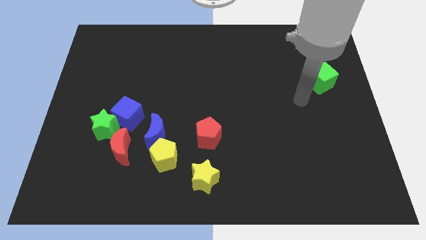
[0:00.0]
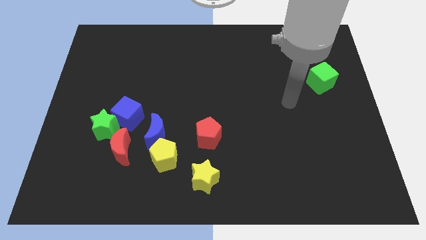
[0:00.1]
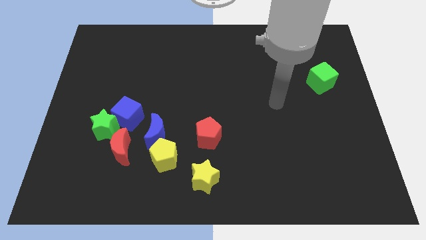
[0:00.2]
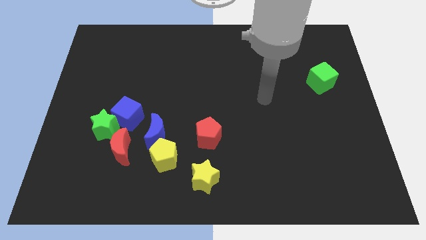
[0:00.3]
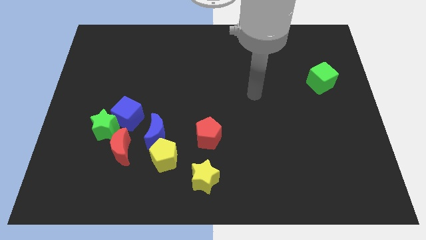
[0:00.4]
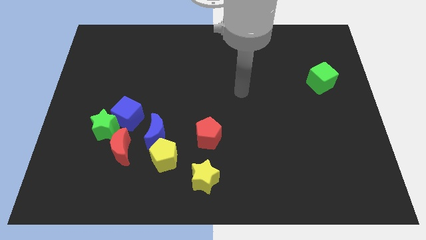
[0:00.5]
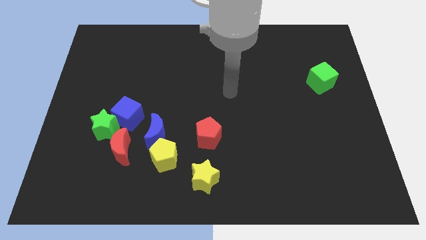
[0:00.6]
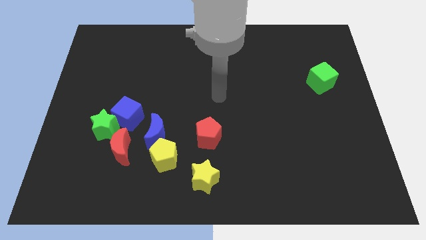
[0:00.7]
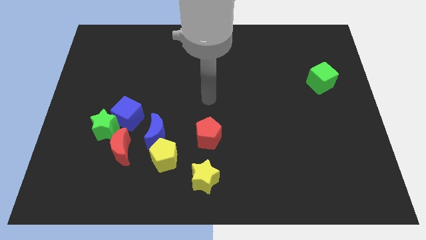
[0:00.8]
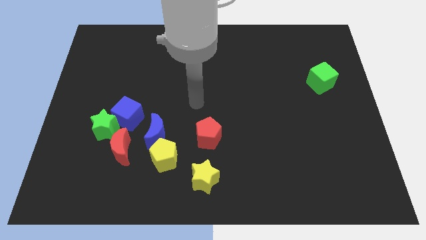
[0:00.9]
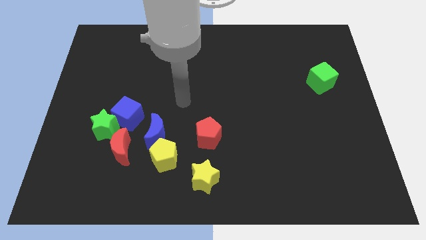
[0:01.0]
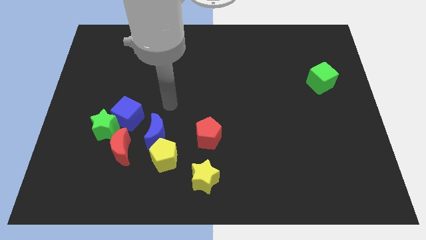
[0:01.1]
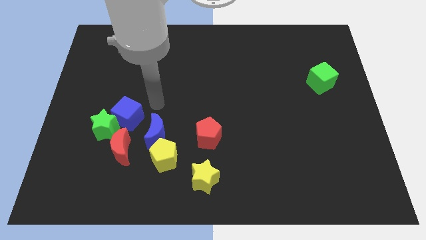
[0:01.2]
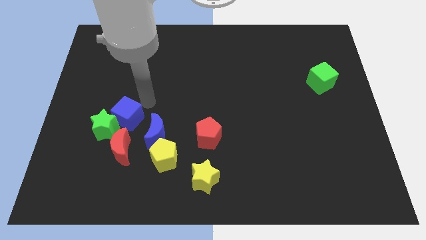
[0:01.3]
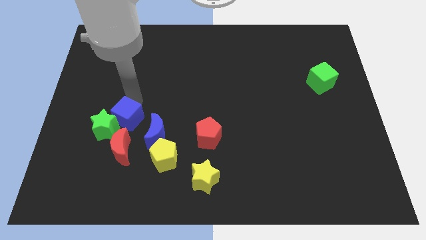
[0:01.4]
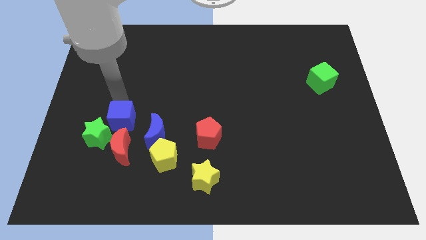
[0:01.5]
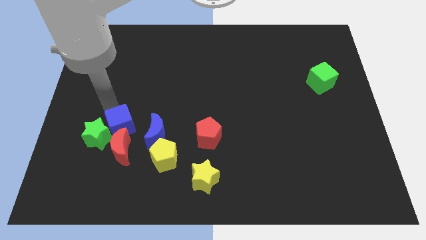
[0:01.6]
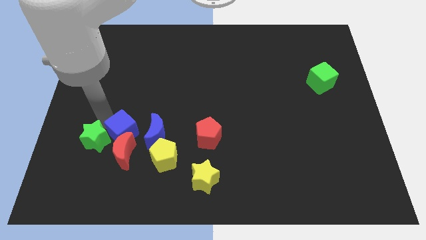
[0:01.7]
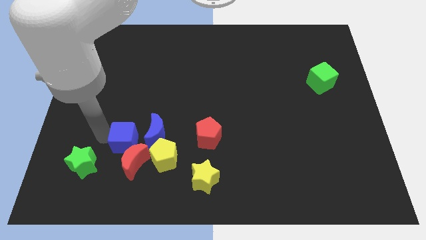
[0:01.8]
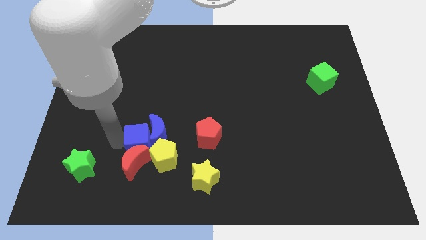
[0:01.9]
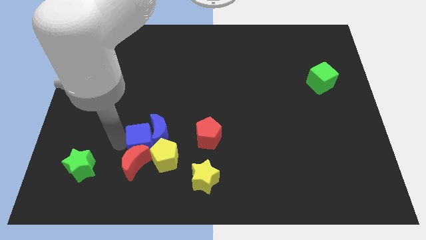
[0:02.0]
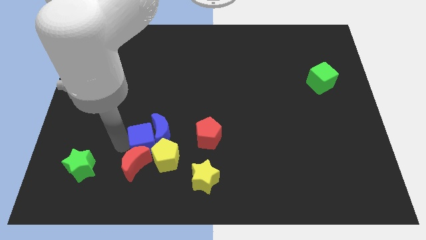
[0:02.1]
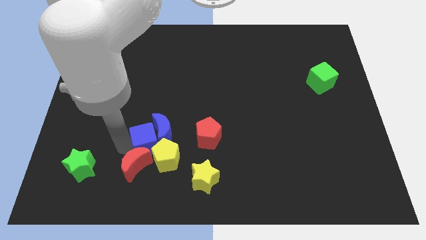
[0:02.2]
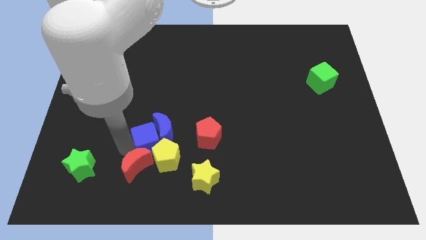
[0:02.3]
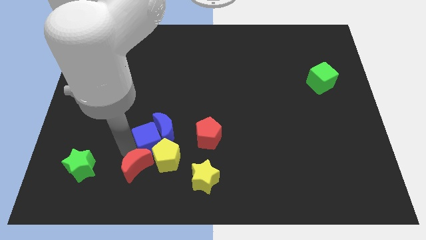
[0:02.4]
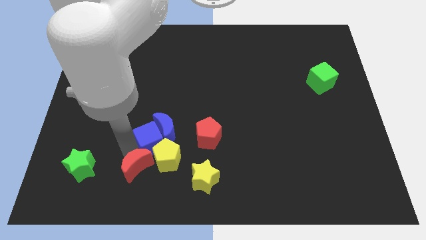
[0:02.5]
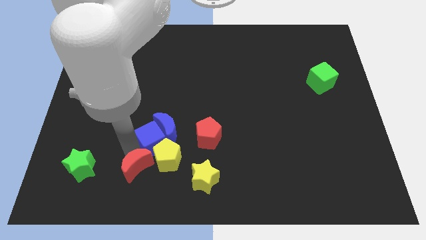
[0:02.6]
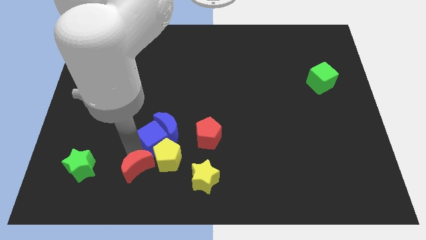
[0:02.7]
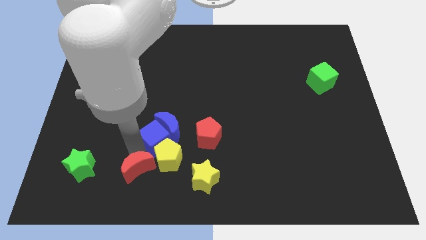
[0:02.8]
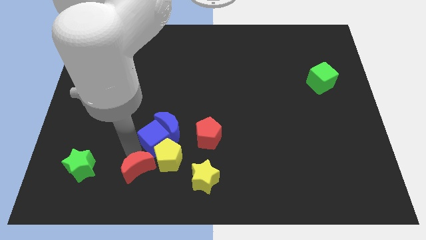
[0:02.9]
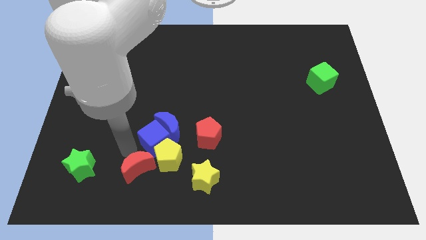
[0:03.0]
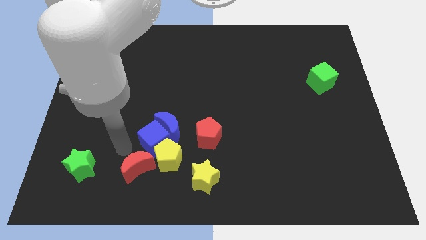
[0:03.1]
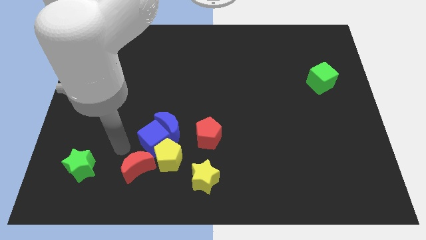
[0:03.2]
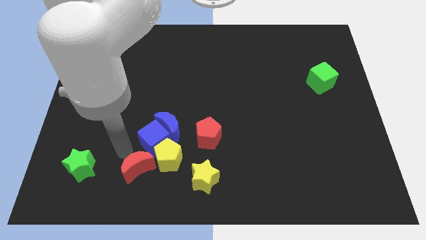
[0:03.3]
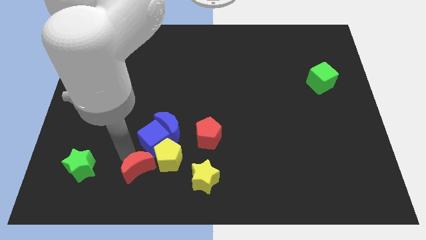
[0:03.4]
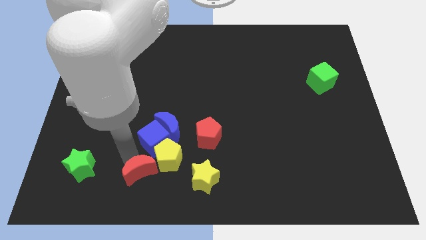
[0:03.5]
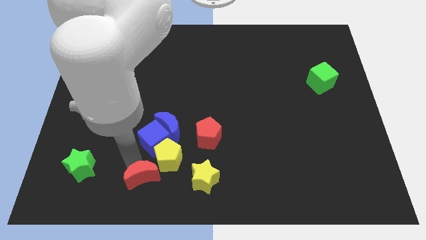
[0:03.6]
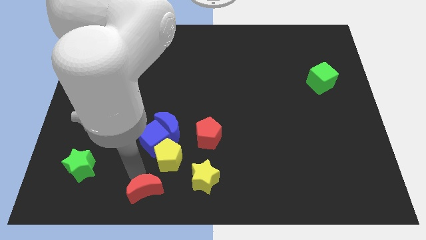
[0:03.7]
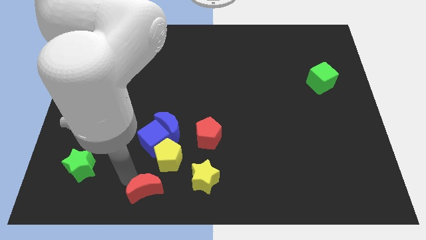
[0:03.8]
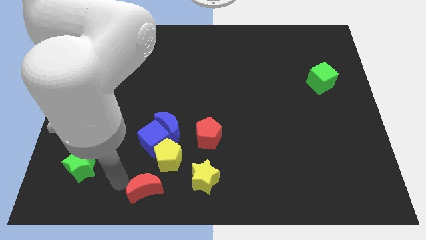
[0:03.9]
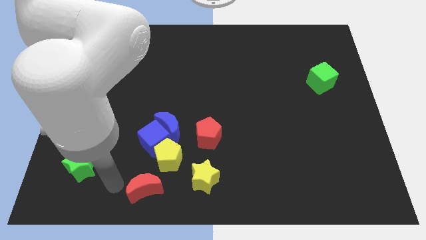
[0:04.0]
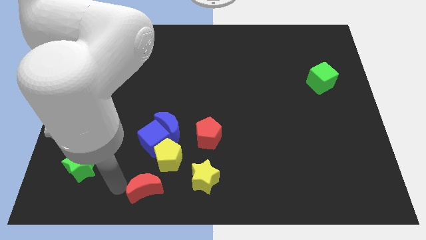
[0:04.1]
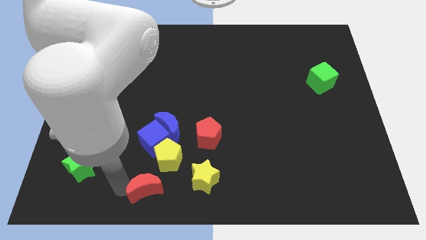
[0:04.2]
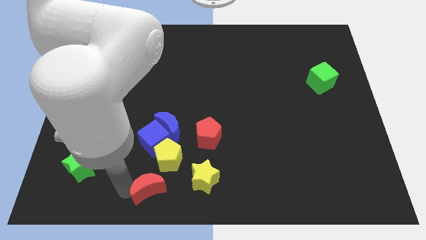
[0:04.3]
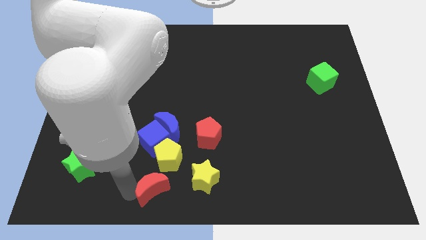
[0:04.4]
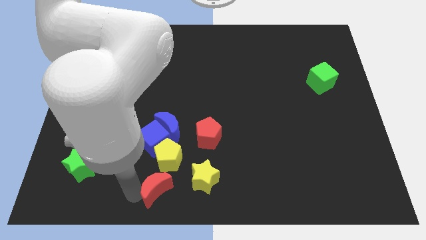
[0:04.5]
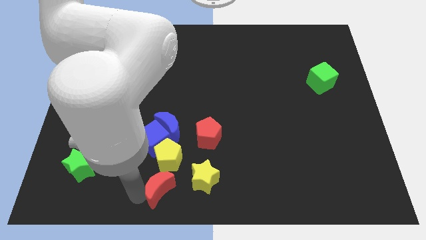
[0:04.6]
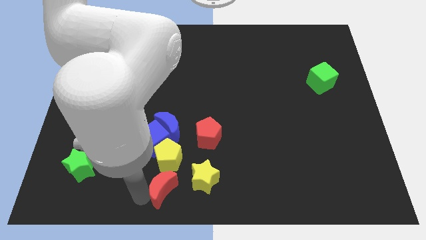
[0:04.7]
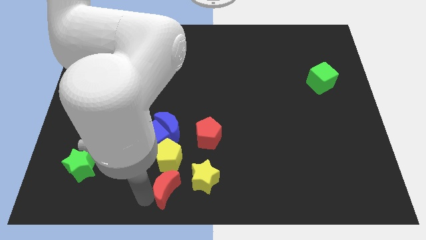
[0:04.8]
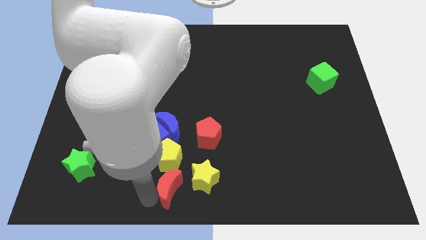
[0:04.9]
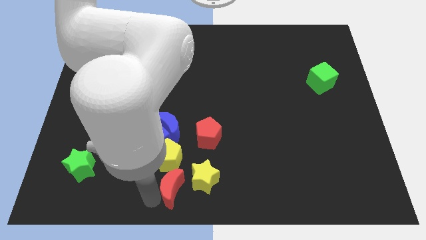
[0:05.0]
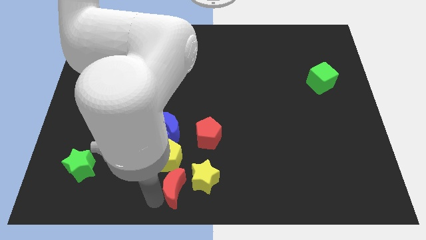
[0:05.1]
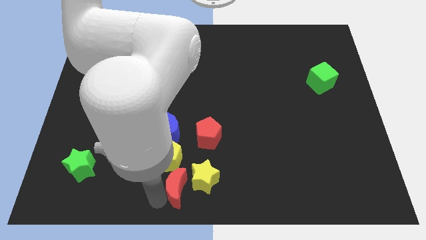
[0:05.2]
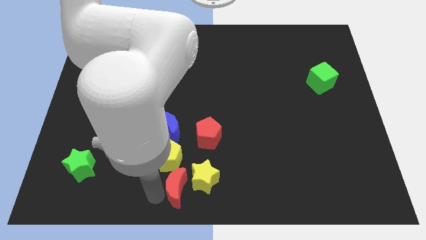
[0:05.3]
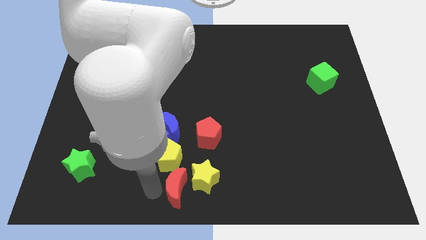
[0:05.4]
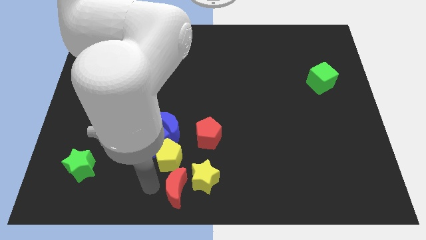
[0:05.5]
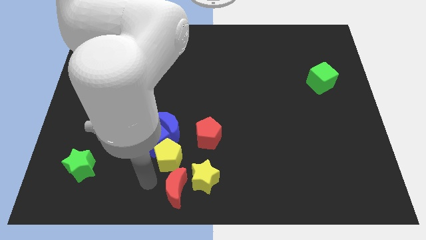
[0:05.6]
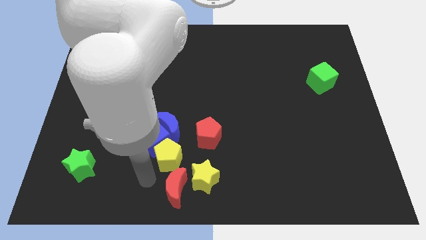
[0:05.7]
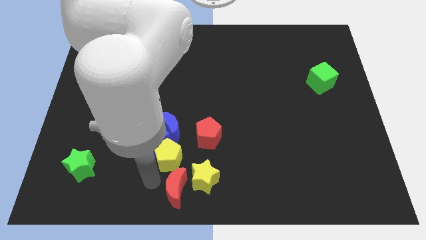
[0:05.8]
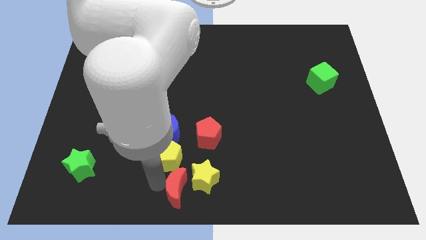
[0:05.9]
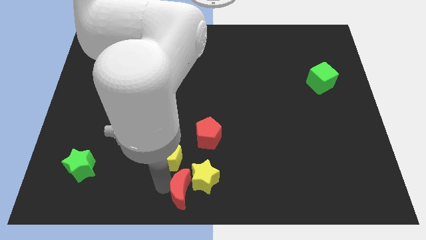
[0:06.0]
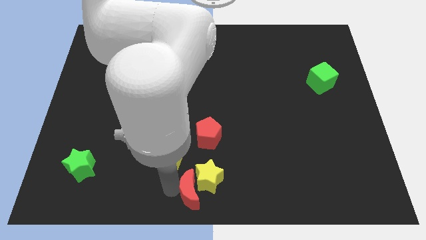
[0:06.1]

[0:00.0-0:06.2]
put the red moon to the bottom side of the red pentagon
